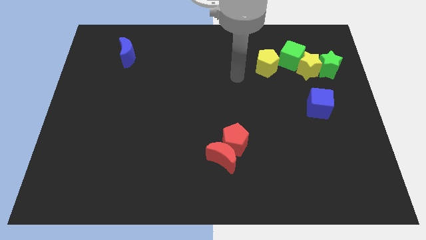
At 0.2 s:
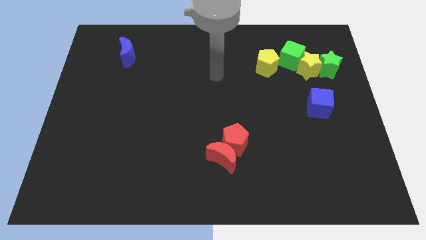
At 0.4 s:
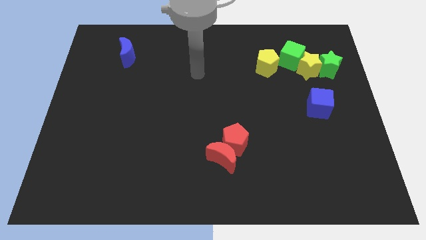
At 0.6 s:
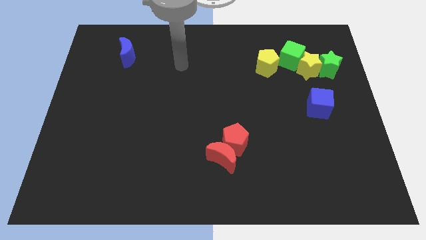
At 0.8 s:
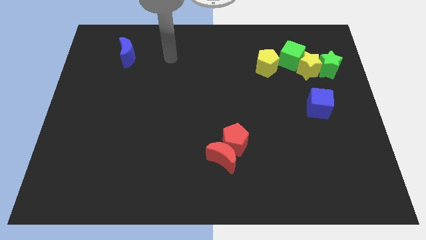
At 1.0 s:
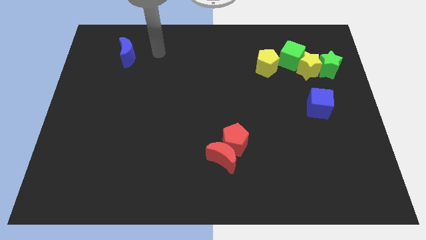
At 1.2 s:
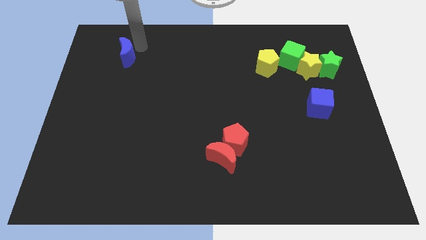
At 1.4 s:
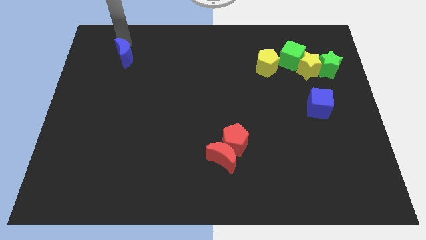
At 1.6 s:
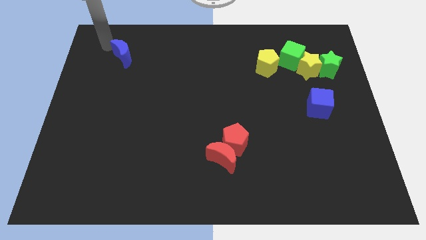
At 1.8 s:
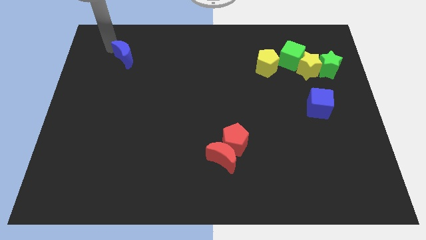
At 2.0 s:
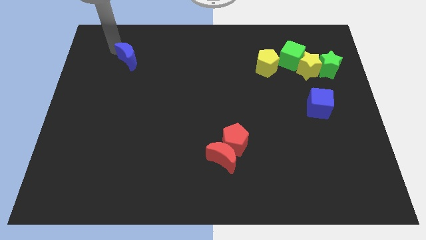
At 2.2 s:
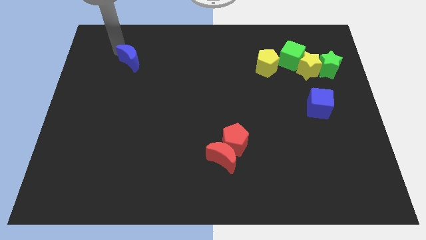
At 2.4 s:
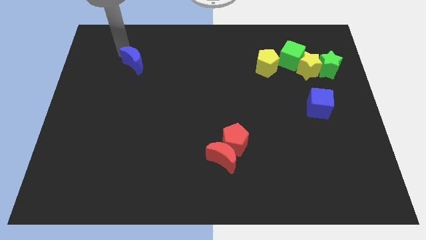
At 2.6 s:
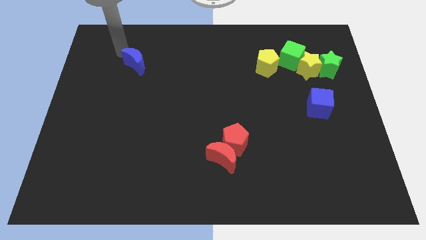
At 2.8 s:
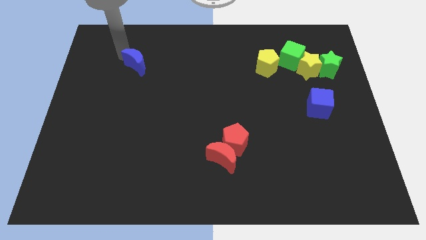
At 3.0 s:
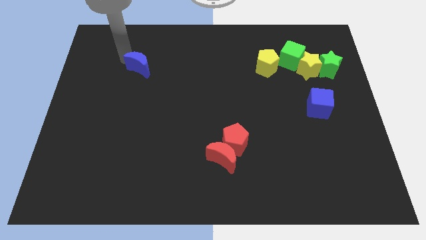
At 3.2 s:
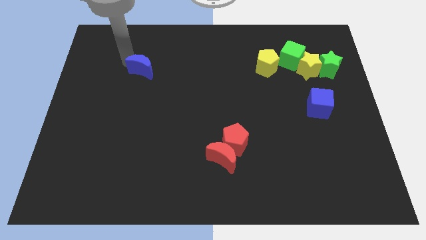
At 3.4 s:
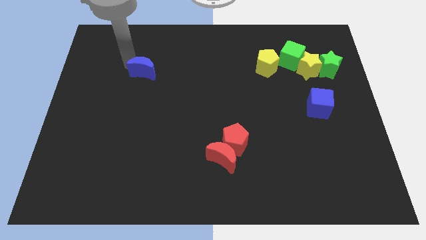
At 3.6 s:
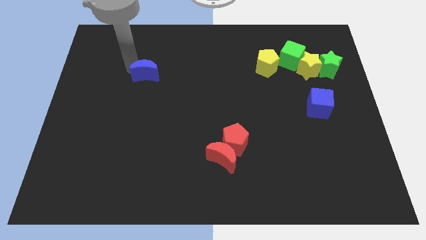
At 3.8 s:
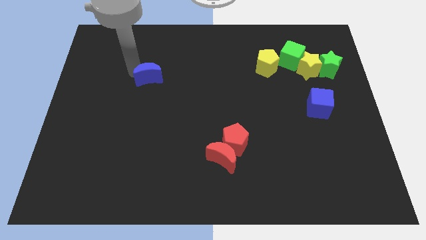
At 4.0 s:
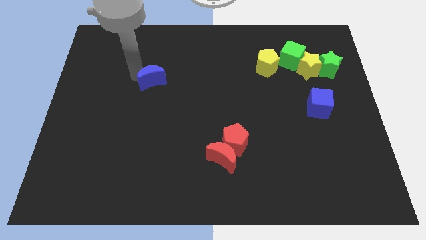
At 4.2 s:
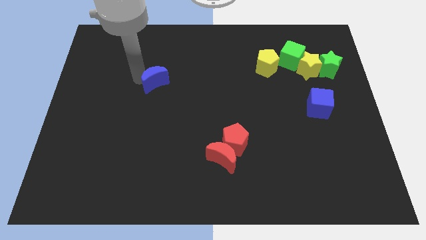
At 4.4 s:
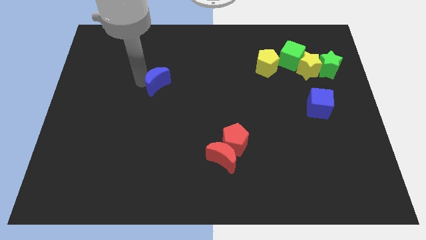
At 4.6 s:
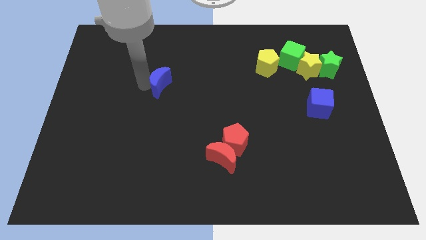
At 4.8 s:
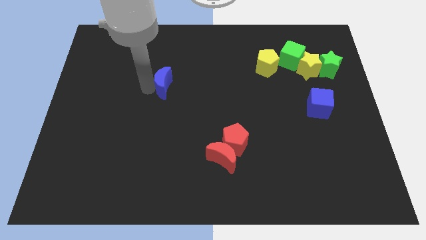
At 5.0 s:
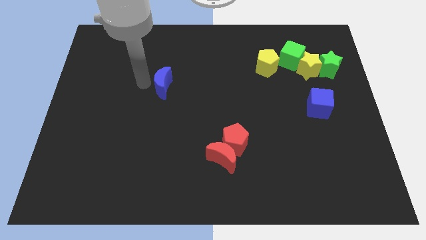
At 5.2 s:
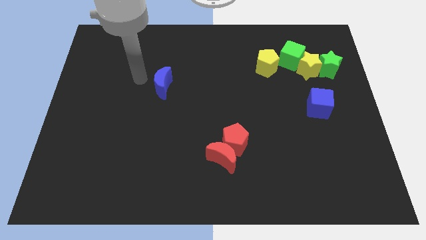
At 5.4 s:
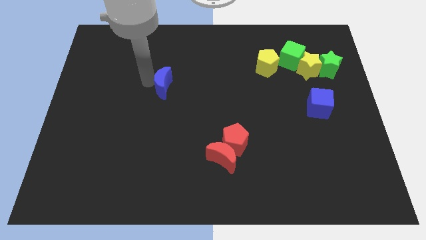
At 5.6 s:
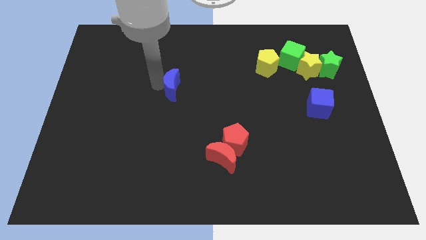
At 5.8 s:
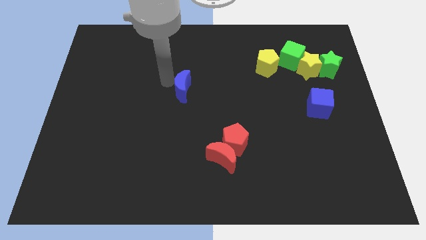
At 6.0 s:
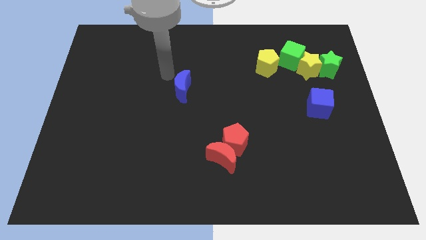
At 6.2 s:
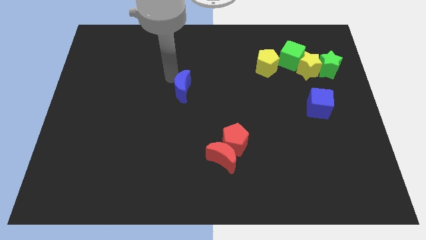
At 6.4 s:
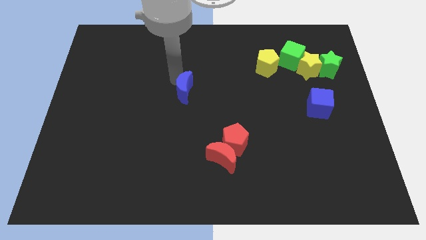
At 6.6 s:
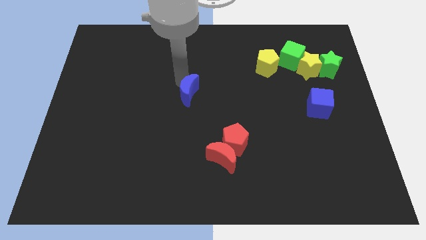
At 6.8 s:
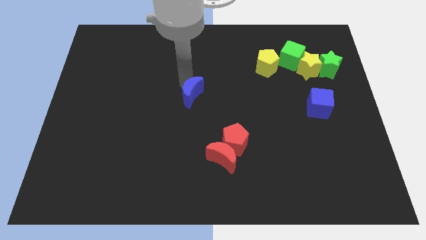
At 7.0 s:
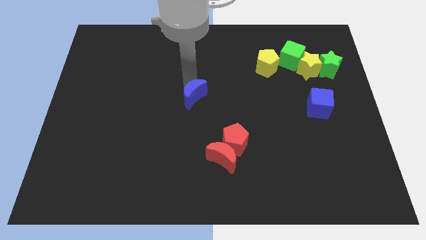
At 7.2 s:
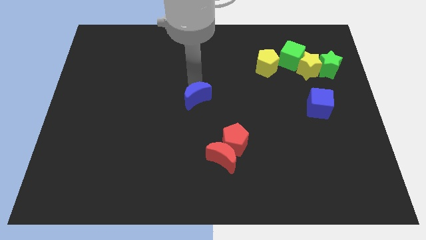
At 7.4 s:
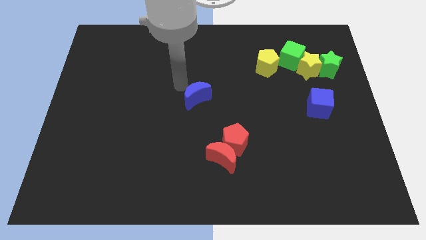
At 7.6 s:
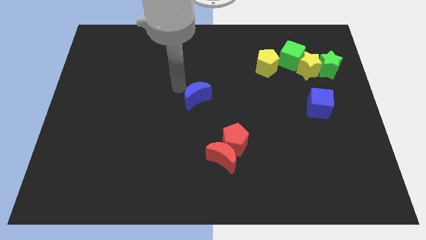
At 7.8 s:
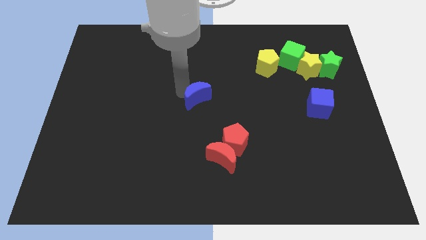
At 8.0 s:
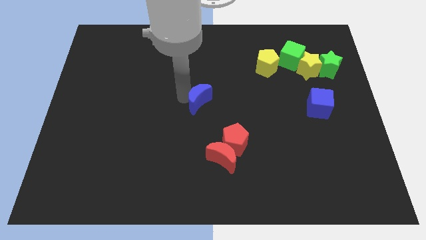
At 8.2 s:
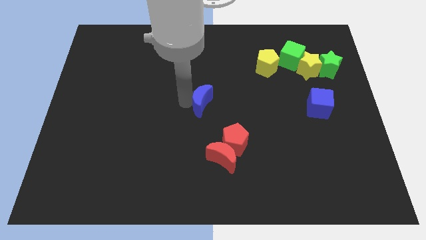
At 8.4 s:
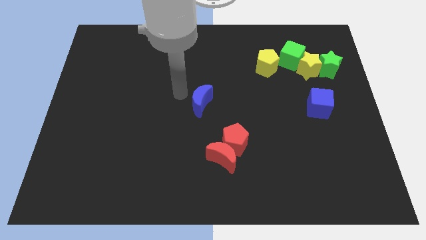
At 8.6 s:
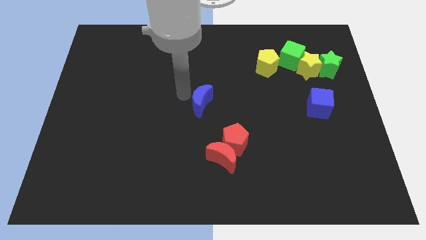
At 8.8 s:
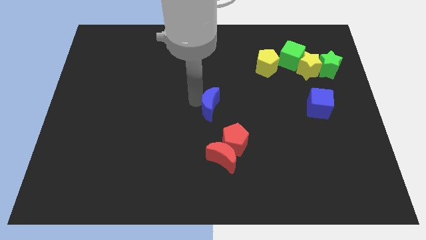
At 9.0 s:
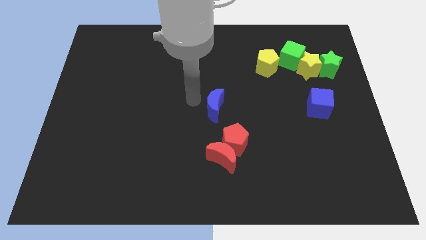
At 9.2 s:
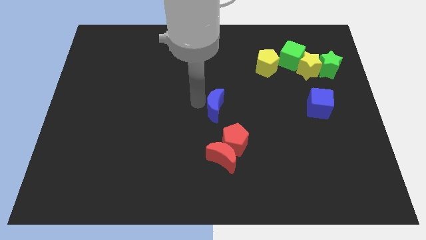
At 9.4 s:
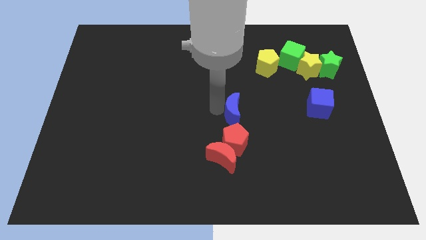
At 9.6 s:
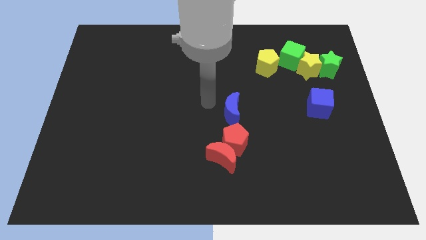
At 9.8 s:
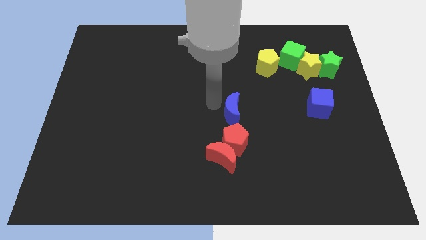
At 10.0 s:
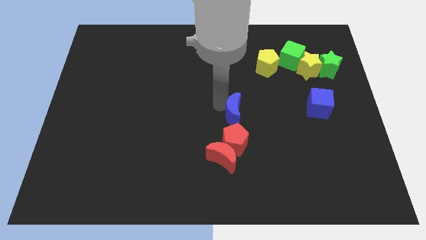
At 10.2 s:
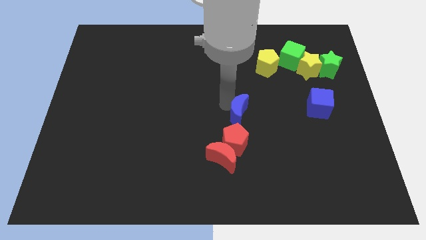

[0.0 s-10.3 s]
push the blue moon to the top right of the red pentagon
